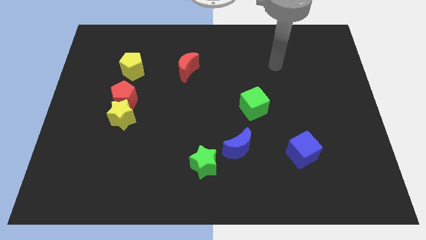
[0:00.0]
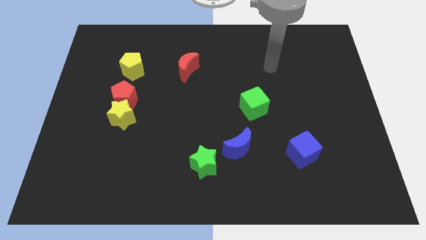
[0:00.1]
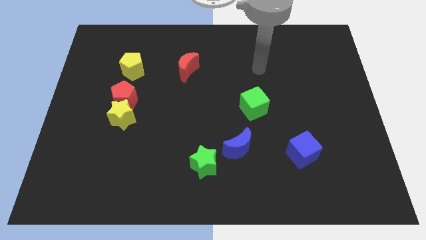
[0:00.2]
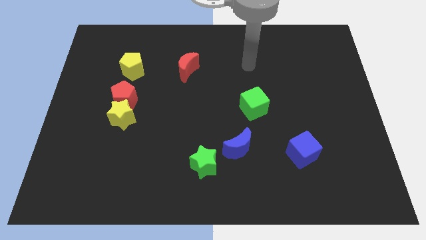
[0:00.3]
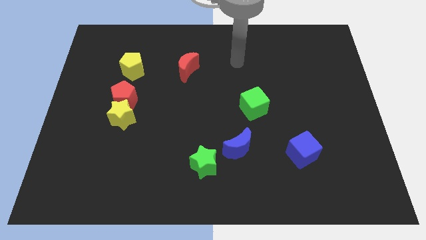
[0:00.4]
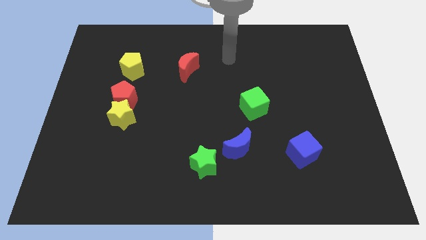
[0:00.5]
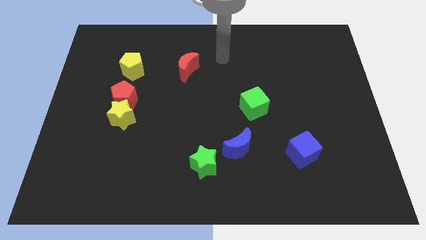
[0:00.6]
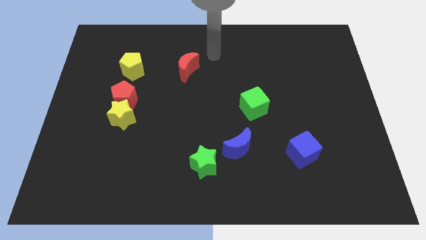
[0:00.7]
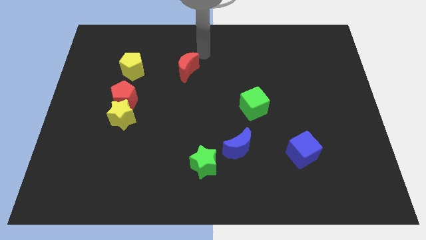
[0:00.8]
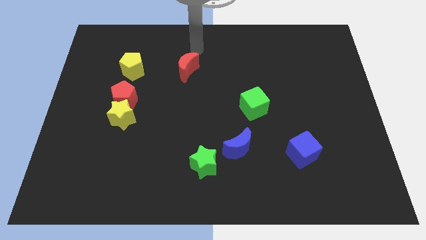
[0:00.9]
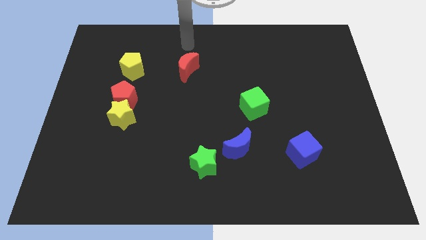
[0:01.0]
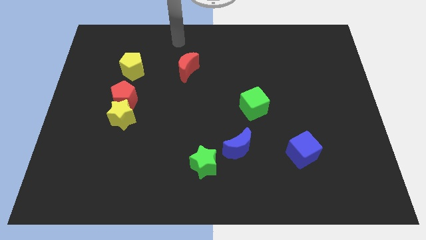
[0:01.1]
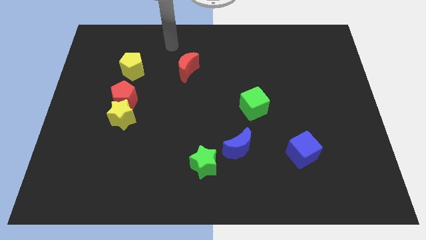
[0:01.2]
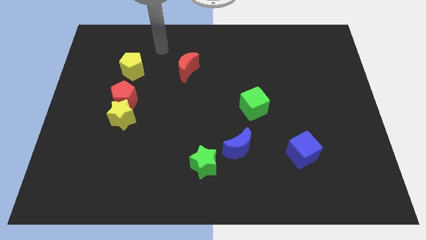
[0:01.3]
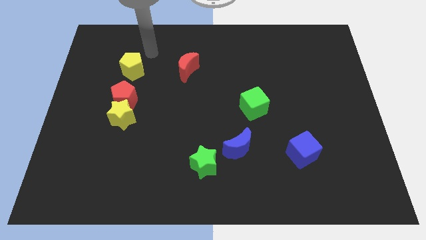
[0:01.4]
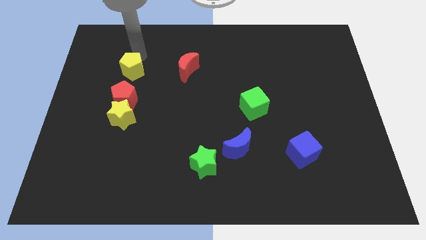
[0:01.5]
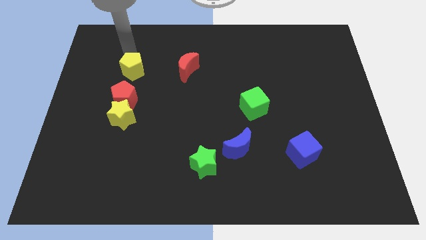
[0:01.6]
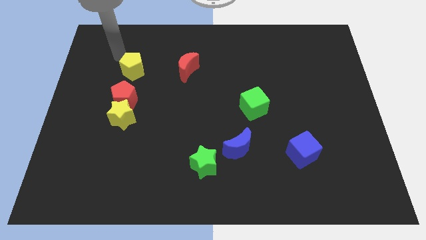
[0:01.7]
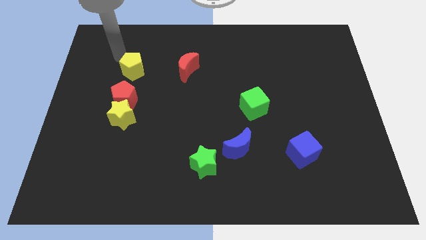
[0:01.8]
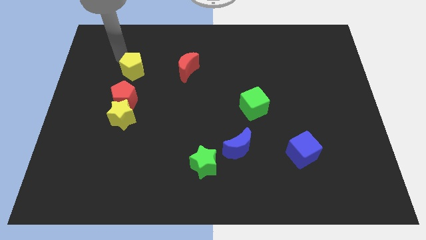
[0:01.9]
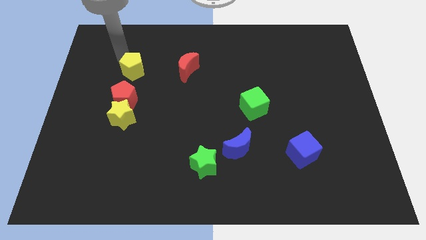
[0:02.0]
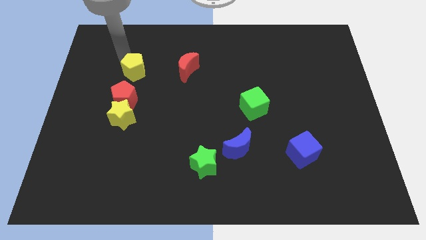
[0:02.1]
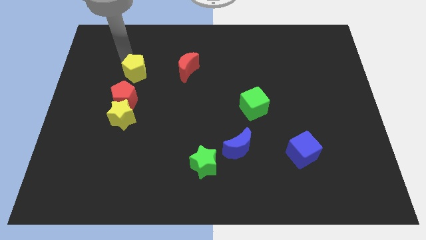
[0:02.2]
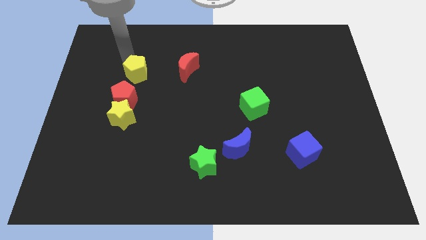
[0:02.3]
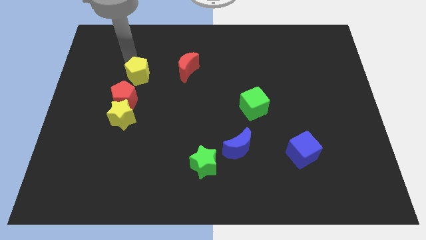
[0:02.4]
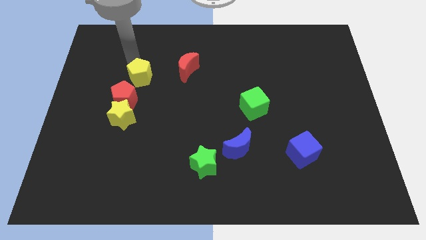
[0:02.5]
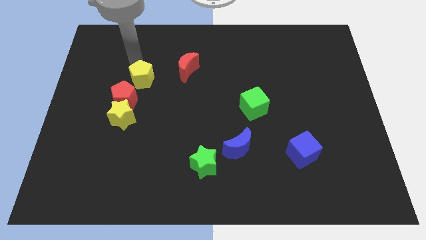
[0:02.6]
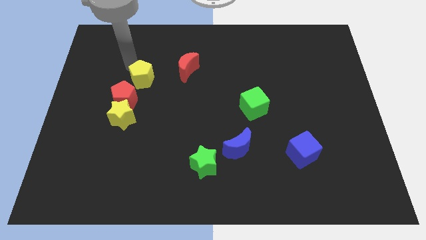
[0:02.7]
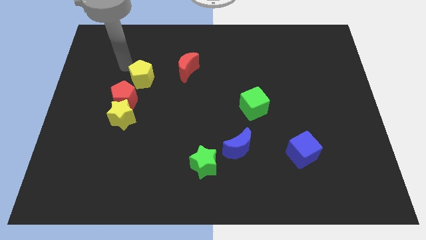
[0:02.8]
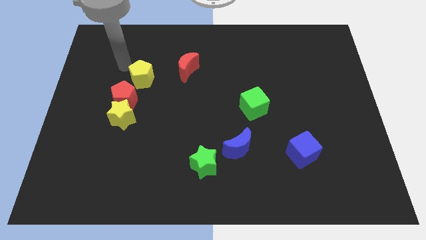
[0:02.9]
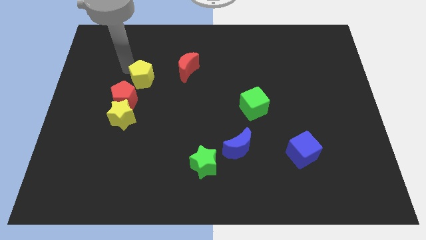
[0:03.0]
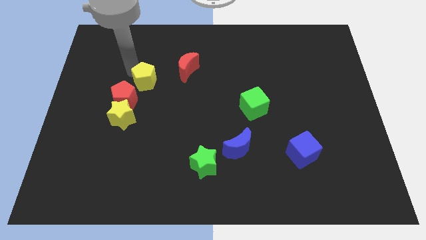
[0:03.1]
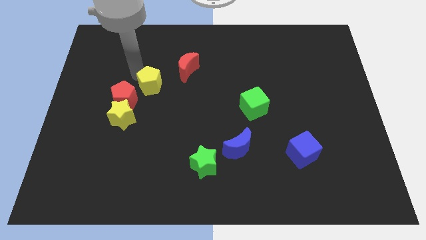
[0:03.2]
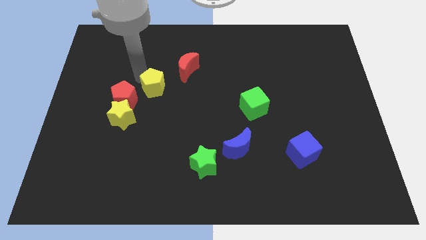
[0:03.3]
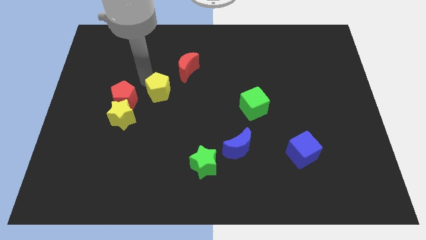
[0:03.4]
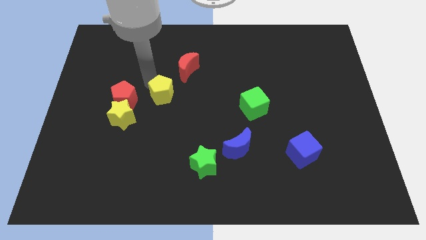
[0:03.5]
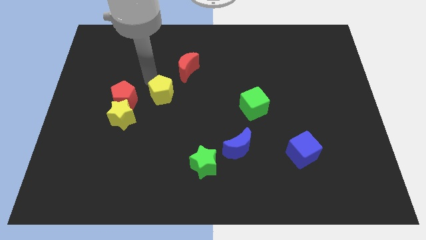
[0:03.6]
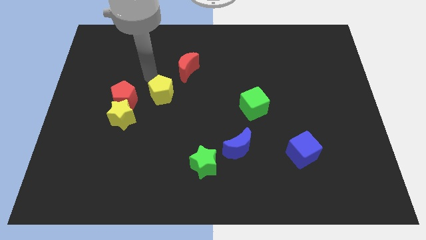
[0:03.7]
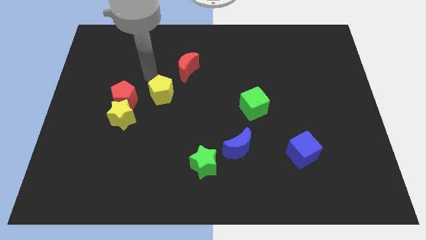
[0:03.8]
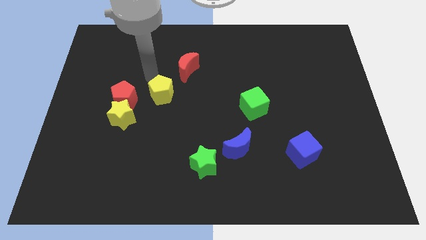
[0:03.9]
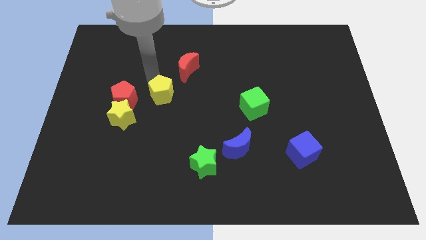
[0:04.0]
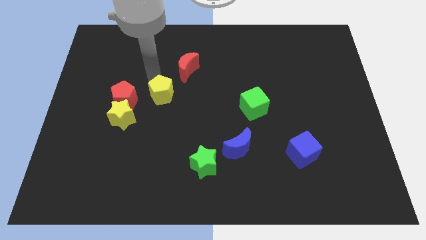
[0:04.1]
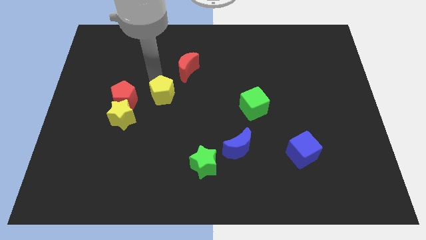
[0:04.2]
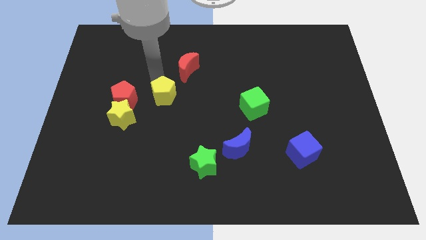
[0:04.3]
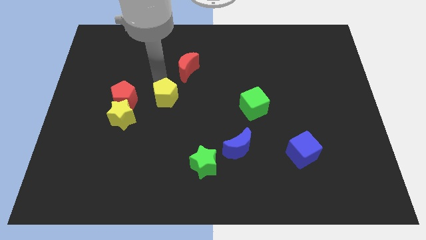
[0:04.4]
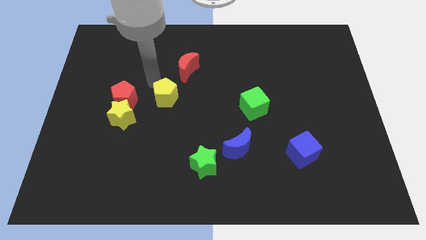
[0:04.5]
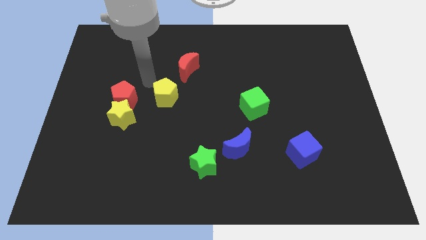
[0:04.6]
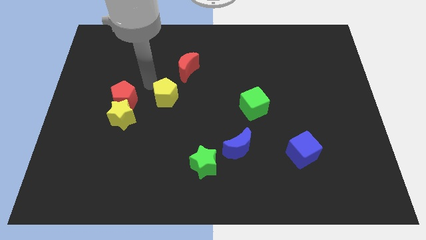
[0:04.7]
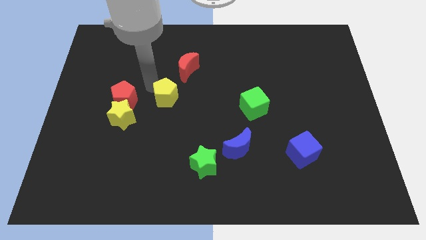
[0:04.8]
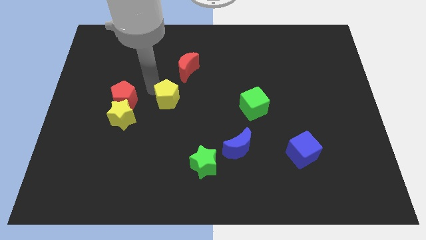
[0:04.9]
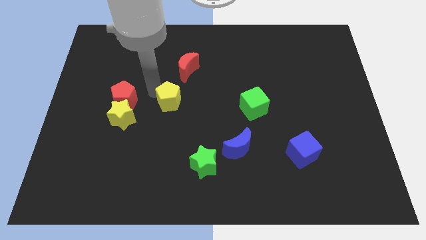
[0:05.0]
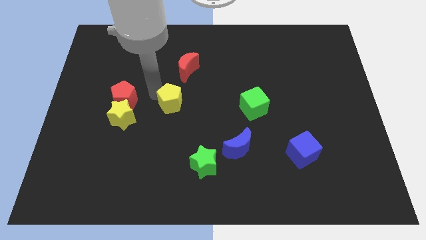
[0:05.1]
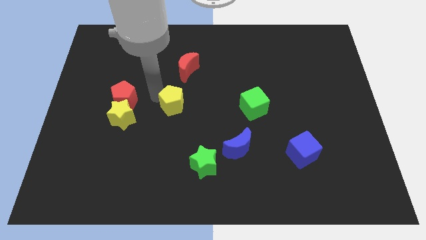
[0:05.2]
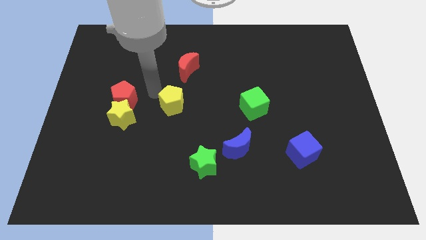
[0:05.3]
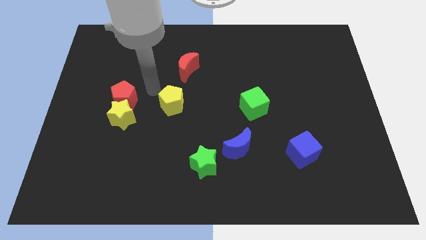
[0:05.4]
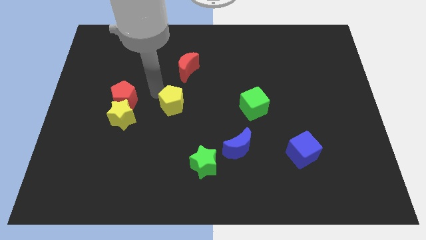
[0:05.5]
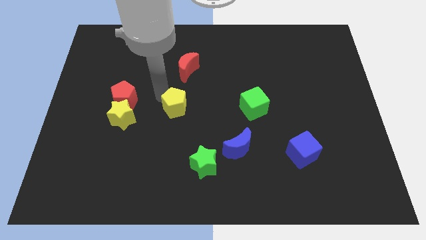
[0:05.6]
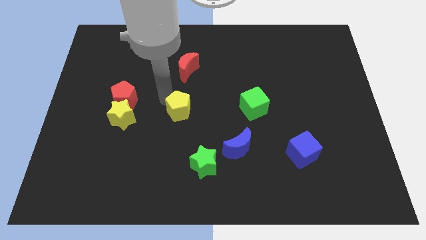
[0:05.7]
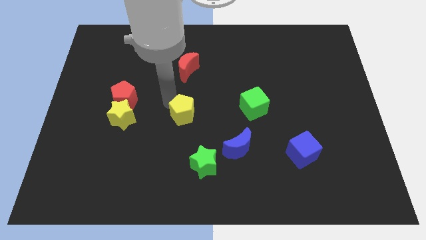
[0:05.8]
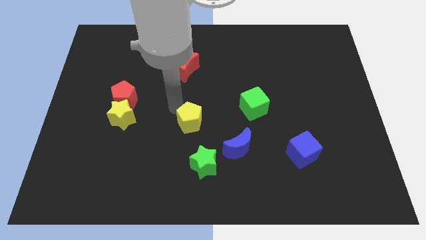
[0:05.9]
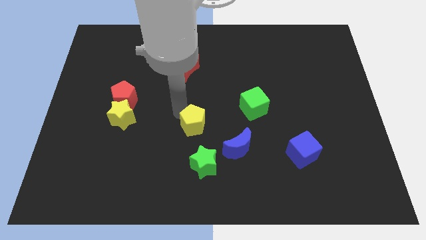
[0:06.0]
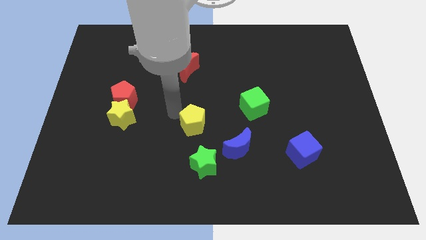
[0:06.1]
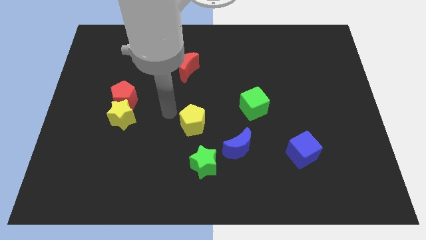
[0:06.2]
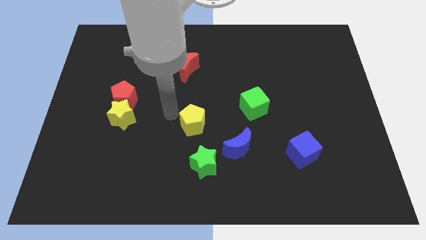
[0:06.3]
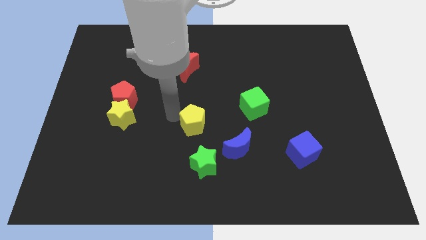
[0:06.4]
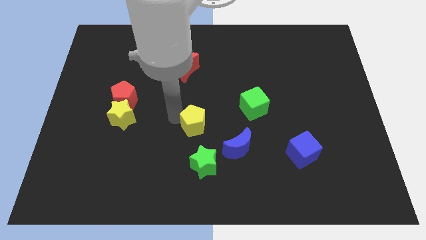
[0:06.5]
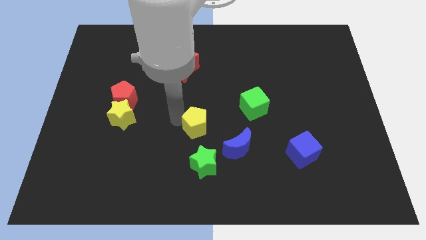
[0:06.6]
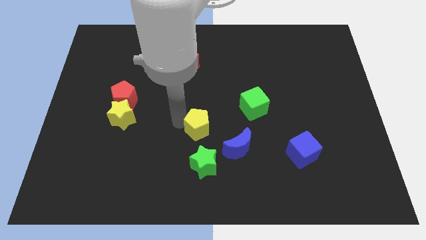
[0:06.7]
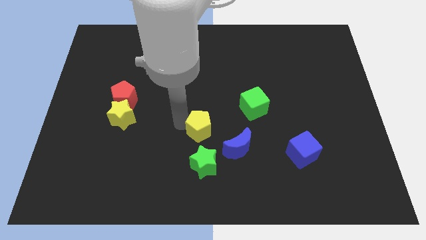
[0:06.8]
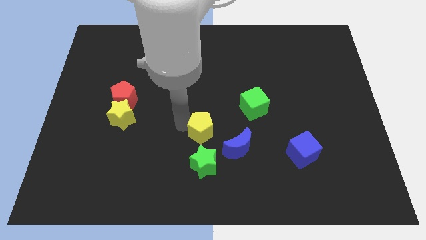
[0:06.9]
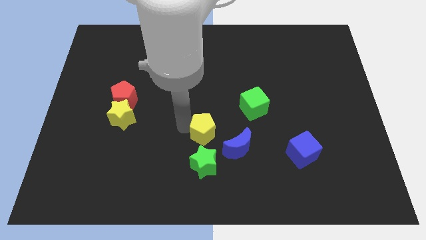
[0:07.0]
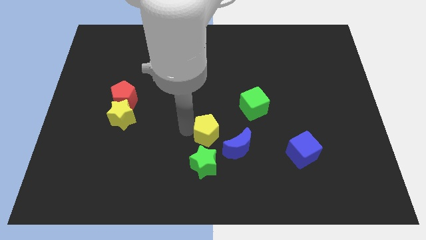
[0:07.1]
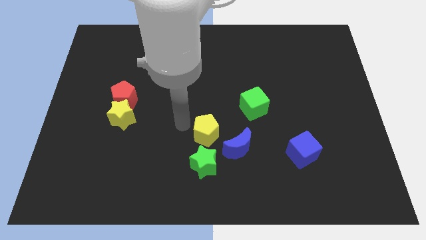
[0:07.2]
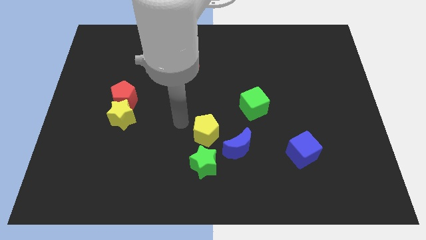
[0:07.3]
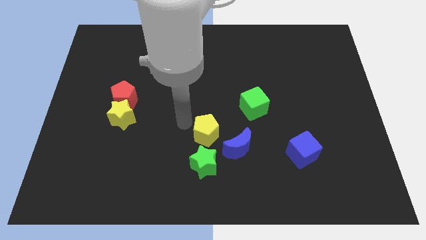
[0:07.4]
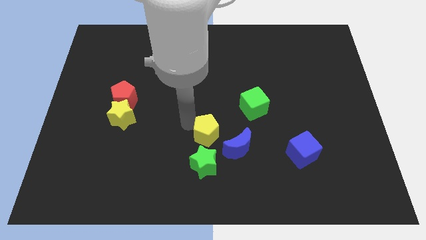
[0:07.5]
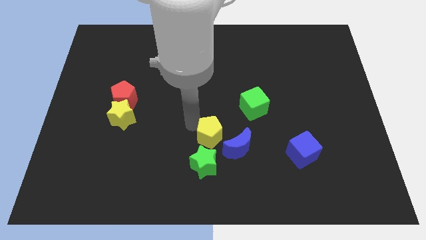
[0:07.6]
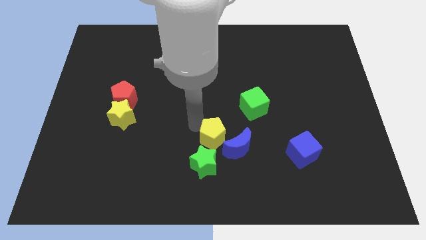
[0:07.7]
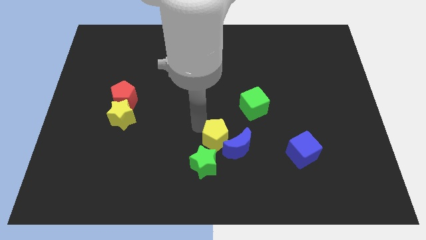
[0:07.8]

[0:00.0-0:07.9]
push the yellow pentagon to the blue moon
